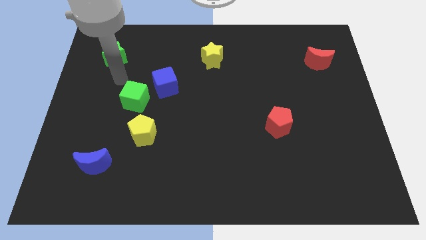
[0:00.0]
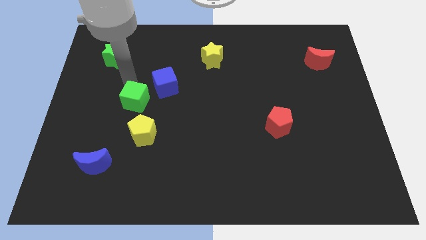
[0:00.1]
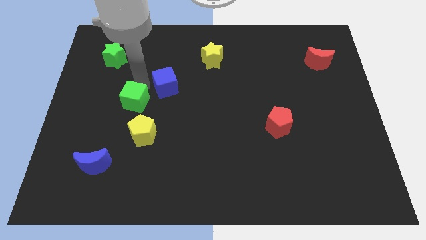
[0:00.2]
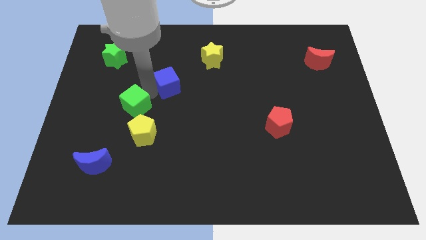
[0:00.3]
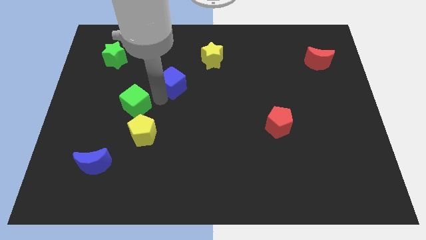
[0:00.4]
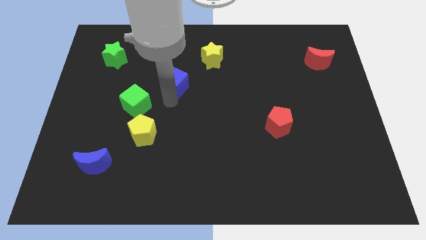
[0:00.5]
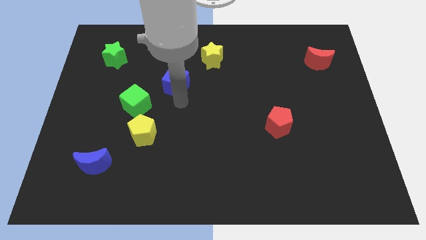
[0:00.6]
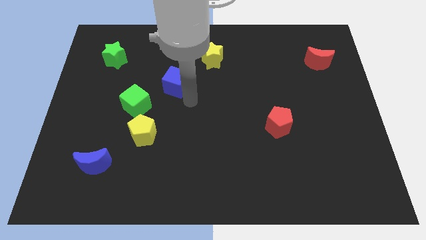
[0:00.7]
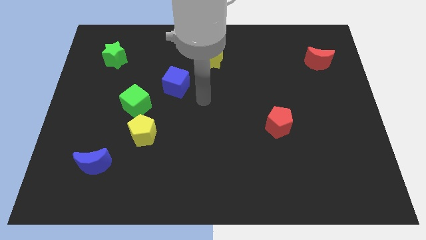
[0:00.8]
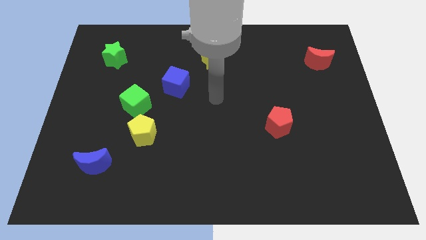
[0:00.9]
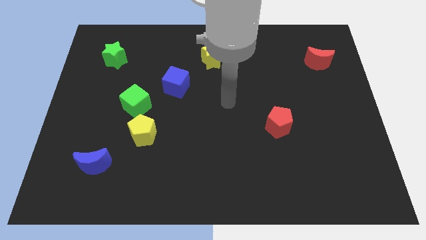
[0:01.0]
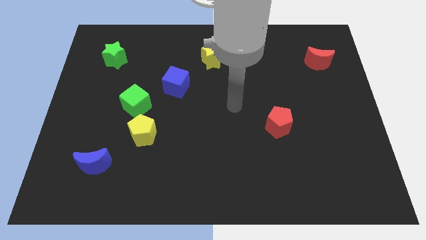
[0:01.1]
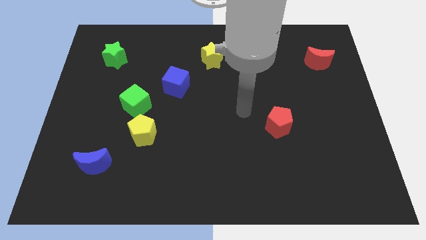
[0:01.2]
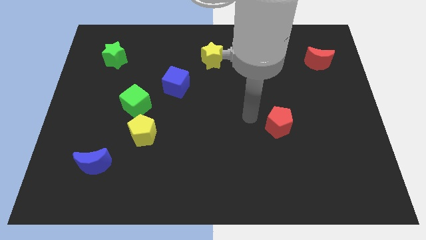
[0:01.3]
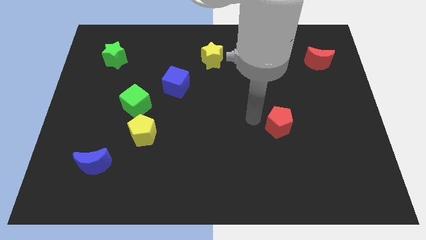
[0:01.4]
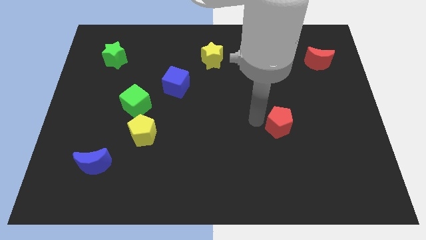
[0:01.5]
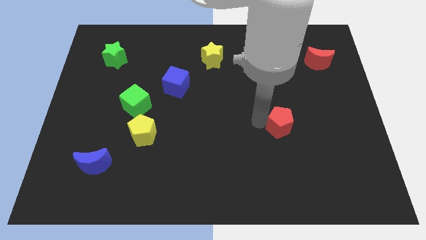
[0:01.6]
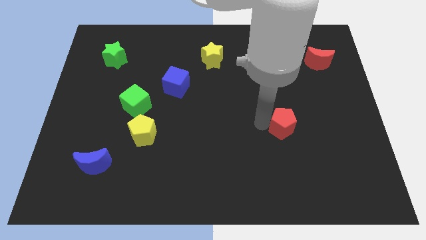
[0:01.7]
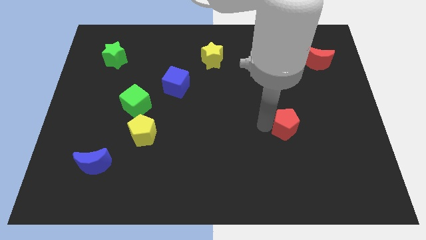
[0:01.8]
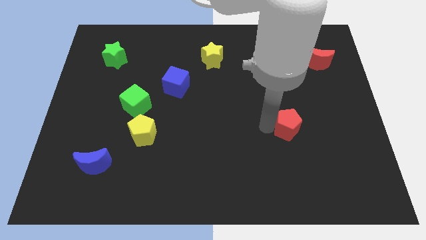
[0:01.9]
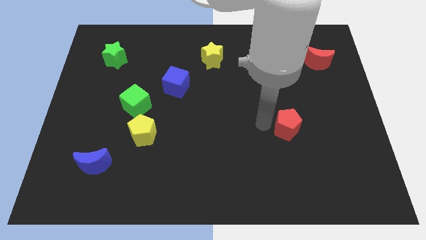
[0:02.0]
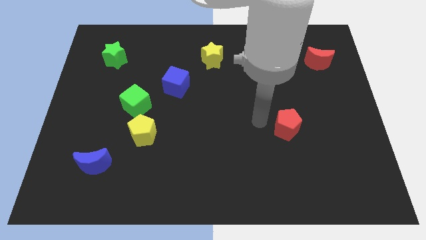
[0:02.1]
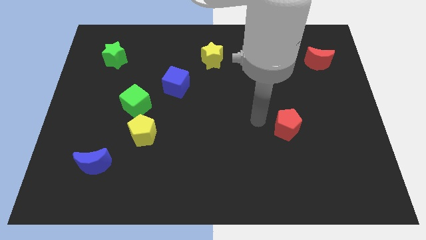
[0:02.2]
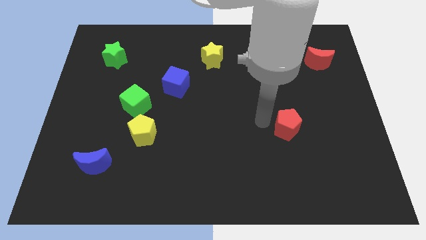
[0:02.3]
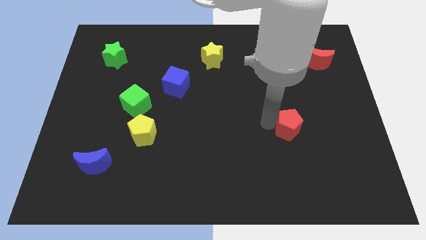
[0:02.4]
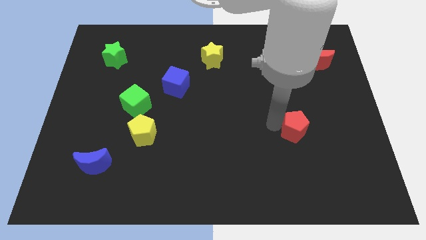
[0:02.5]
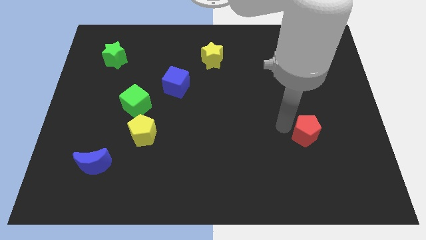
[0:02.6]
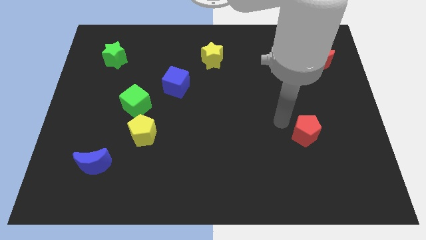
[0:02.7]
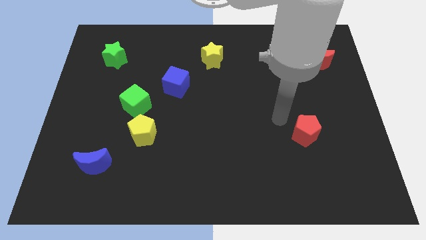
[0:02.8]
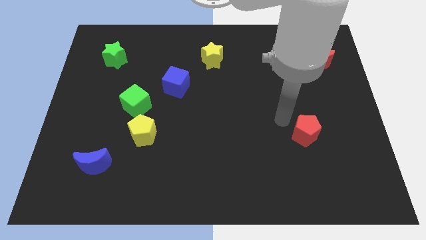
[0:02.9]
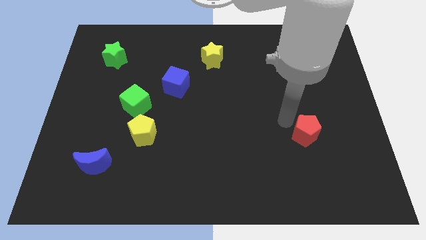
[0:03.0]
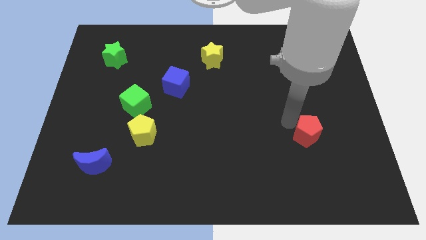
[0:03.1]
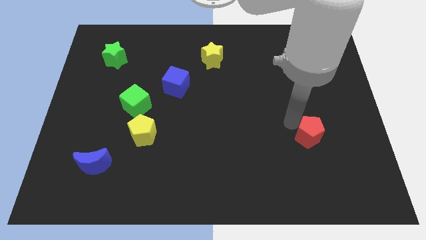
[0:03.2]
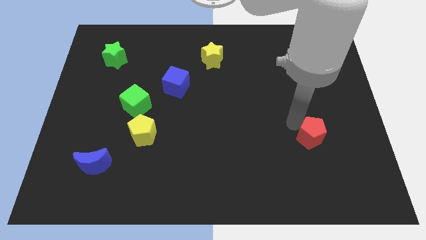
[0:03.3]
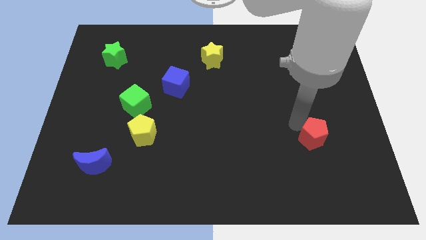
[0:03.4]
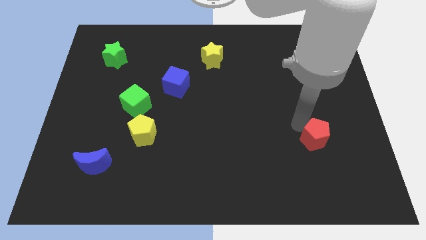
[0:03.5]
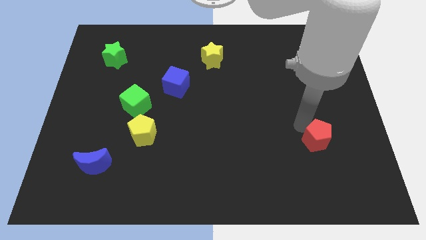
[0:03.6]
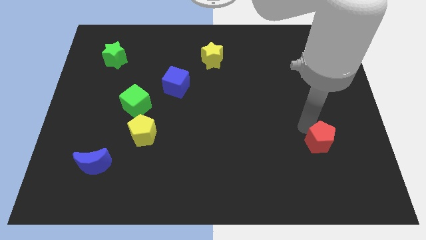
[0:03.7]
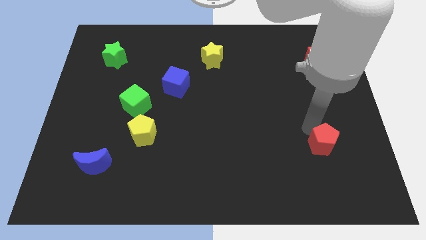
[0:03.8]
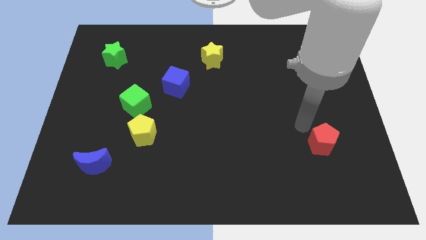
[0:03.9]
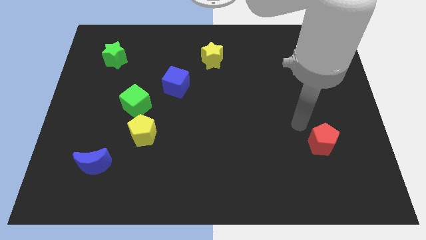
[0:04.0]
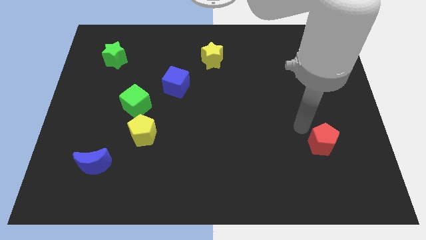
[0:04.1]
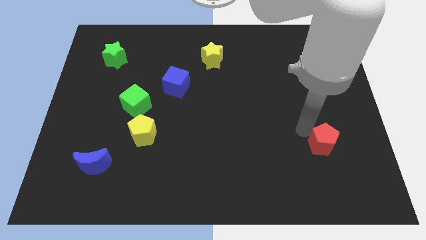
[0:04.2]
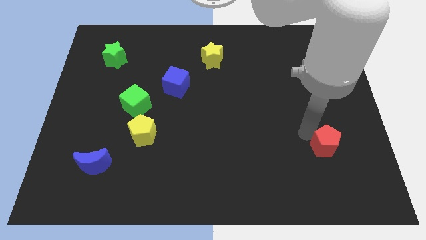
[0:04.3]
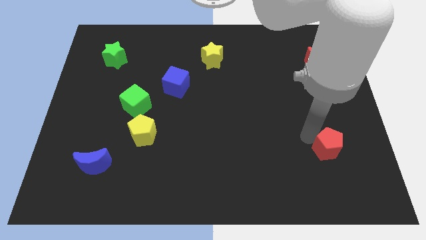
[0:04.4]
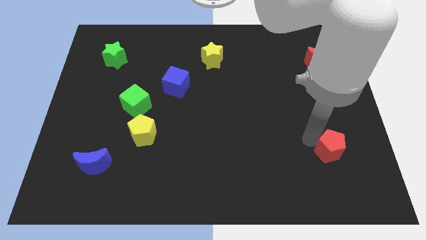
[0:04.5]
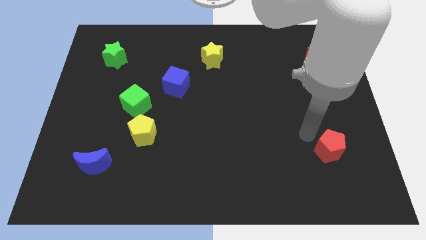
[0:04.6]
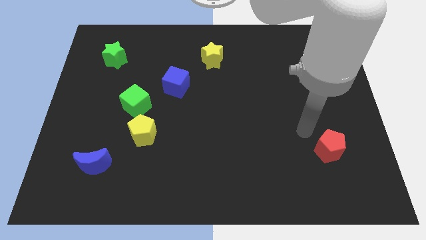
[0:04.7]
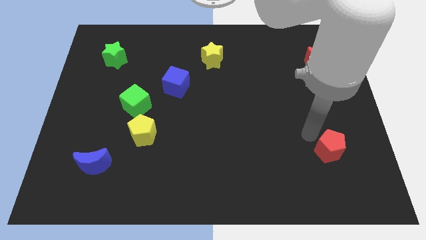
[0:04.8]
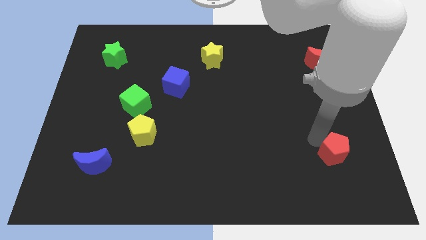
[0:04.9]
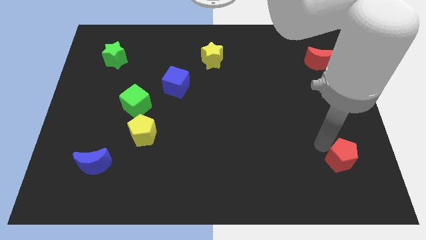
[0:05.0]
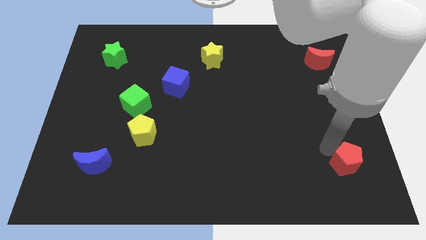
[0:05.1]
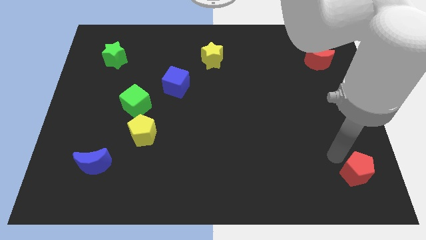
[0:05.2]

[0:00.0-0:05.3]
move the red pentagon to the lower right corner

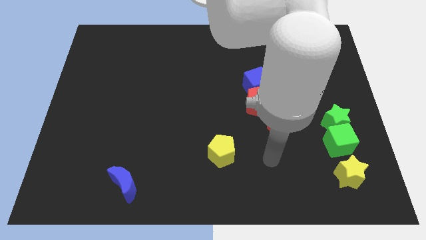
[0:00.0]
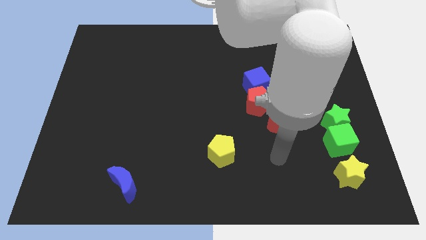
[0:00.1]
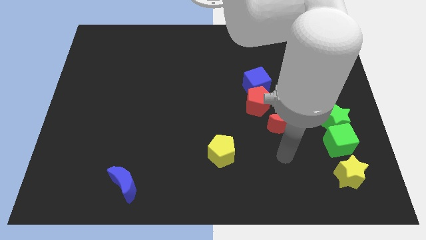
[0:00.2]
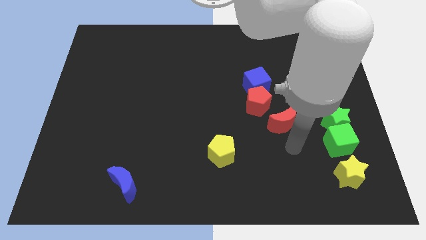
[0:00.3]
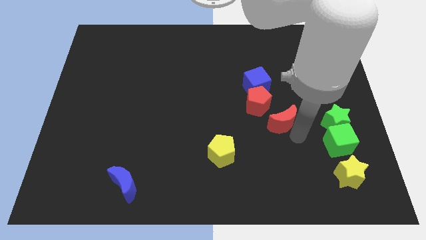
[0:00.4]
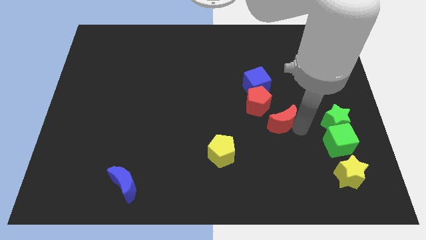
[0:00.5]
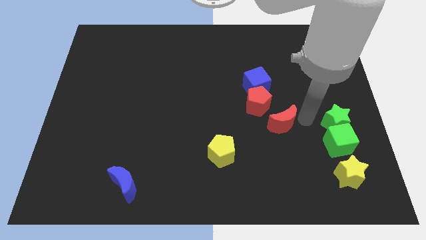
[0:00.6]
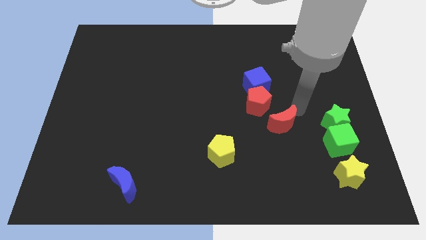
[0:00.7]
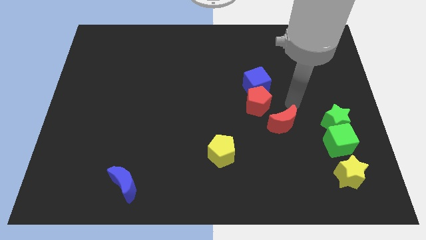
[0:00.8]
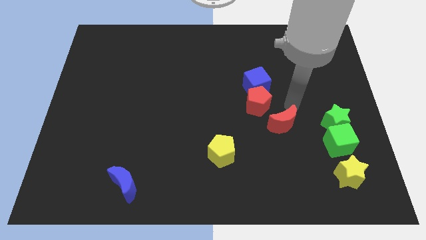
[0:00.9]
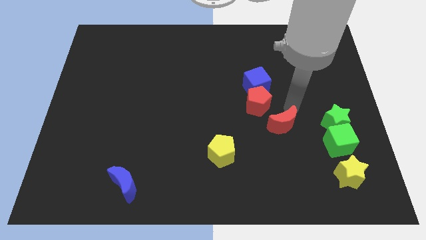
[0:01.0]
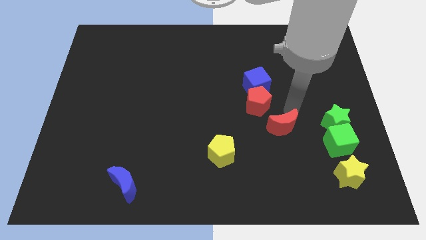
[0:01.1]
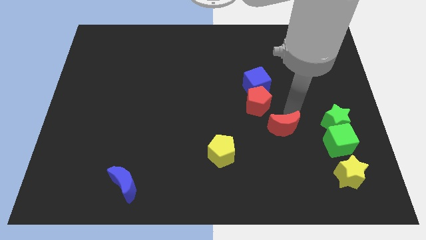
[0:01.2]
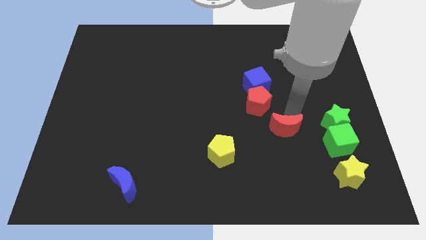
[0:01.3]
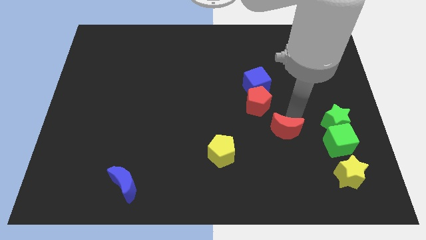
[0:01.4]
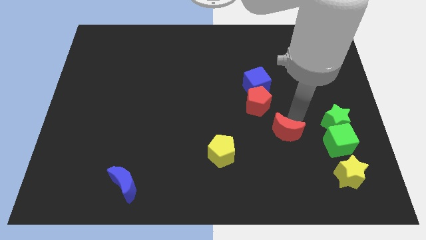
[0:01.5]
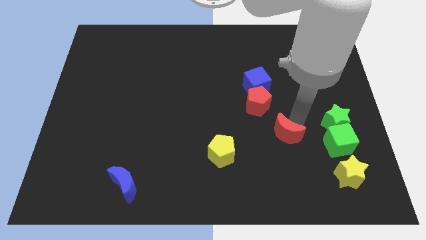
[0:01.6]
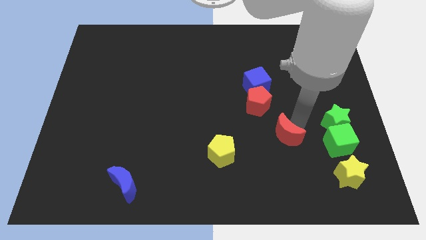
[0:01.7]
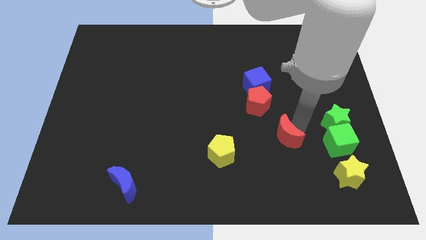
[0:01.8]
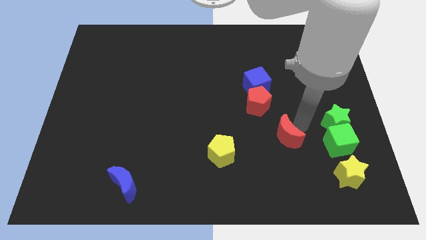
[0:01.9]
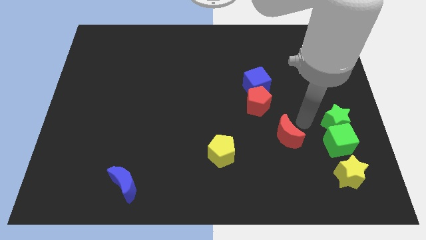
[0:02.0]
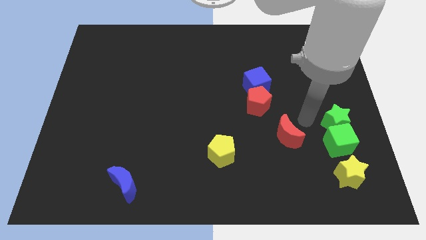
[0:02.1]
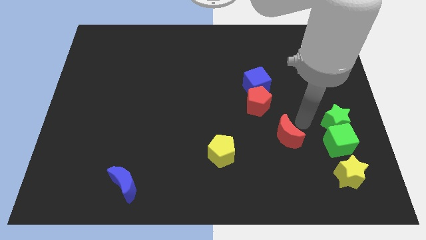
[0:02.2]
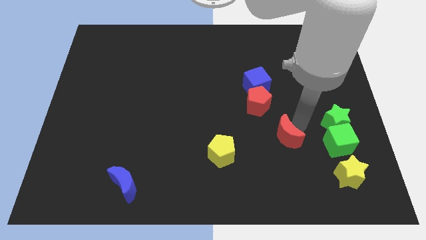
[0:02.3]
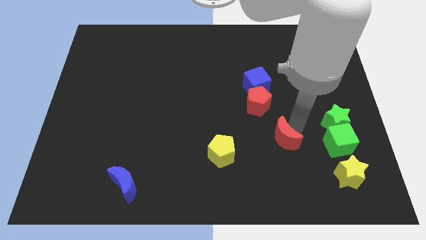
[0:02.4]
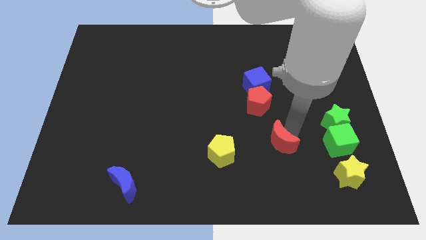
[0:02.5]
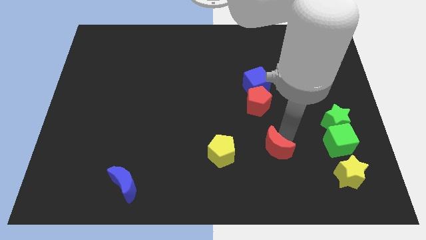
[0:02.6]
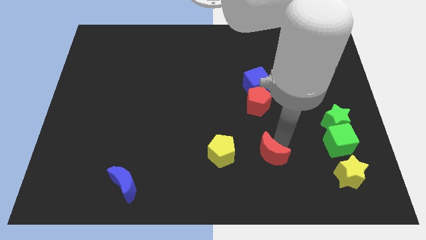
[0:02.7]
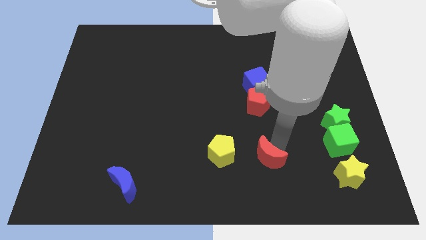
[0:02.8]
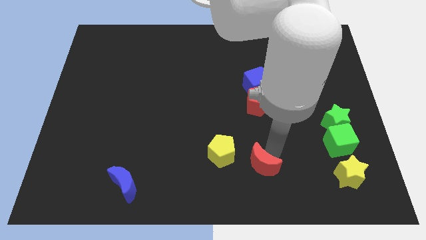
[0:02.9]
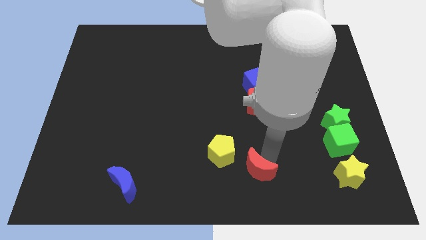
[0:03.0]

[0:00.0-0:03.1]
put the red moon to the bottom
